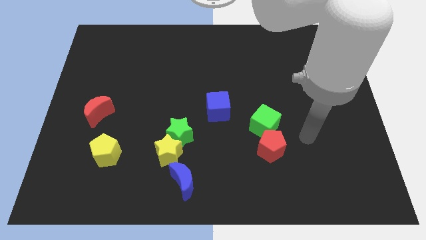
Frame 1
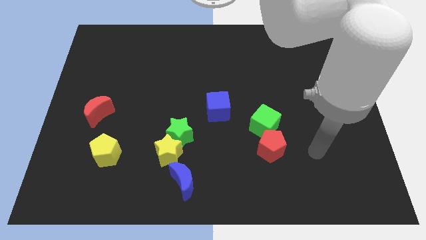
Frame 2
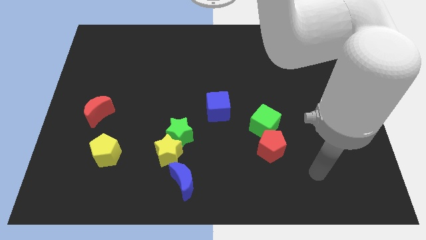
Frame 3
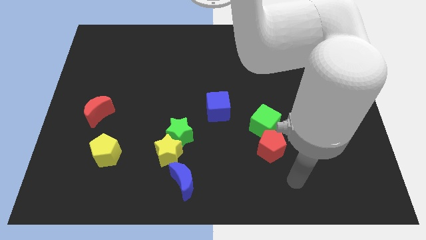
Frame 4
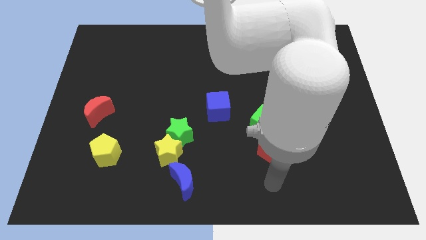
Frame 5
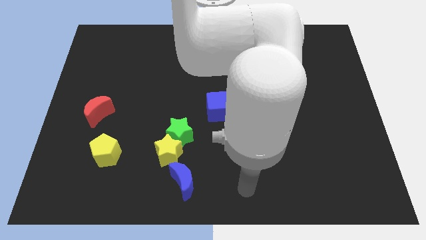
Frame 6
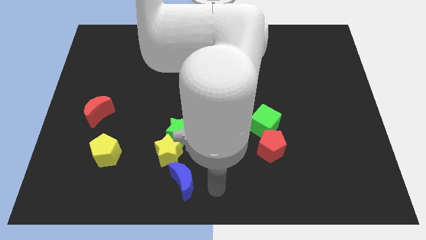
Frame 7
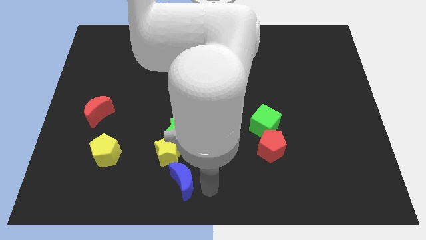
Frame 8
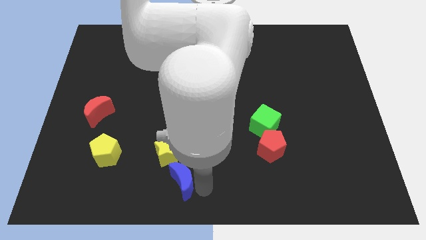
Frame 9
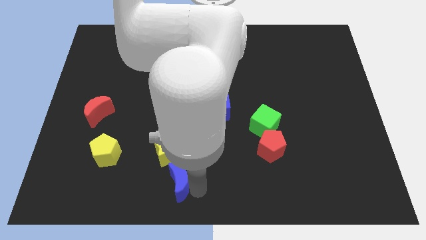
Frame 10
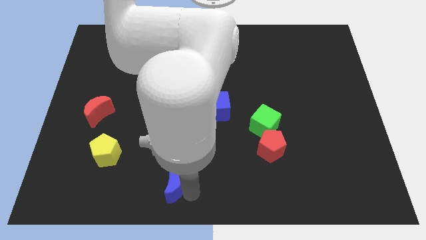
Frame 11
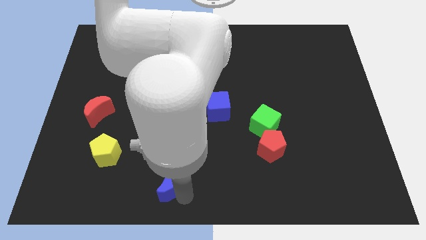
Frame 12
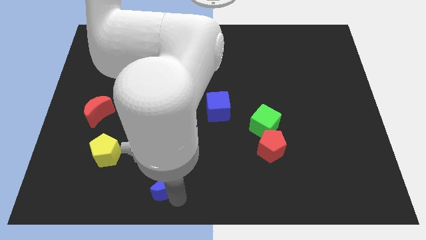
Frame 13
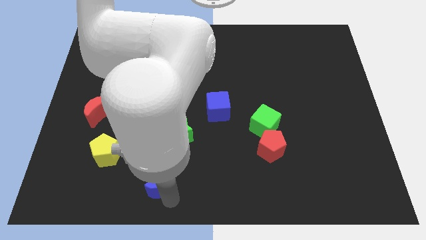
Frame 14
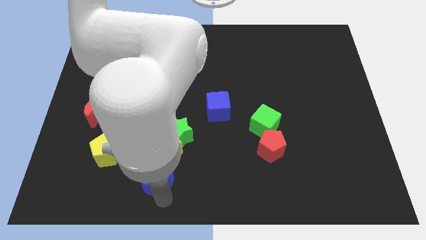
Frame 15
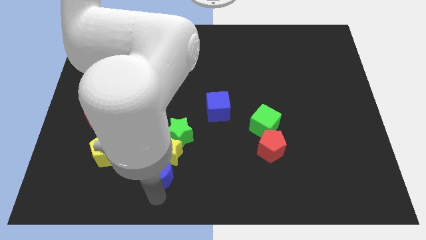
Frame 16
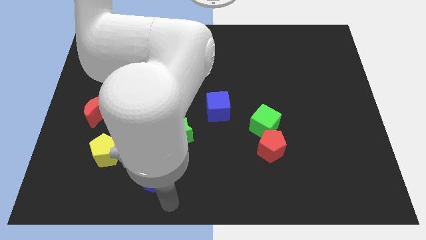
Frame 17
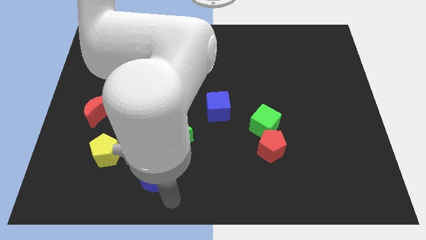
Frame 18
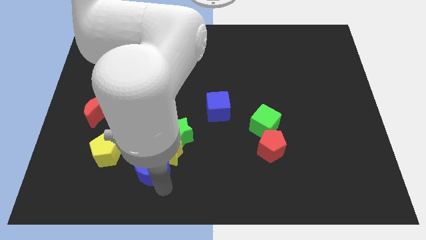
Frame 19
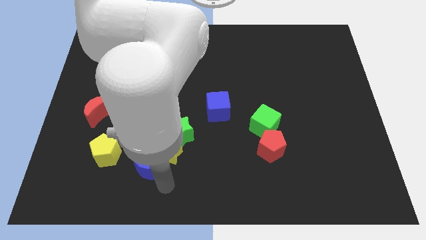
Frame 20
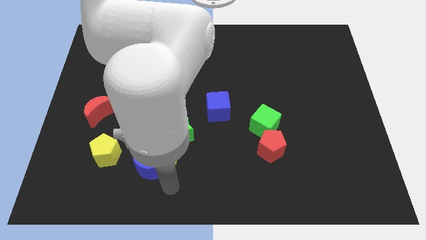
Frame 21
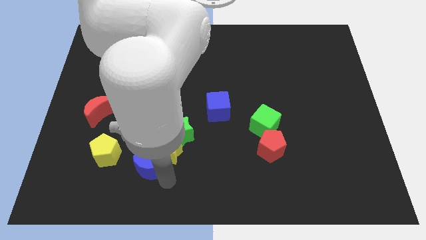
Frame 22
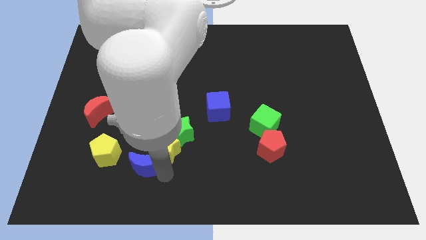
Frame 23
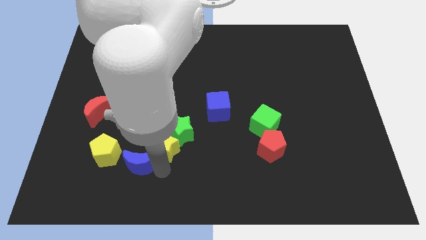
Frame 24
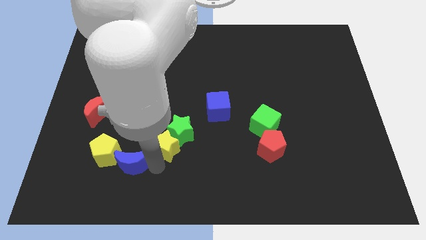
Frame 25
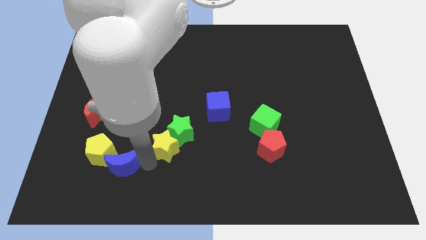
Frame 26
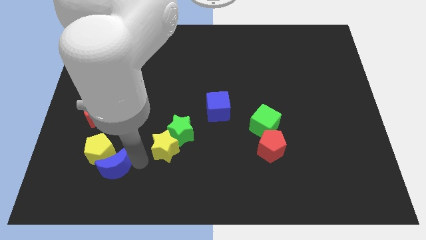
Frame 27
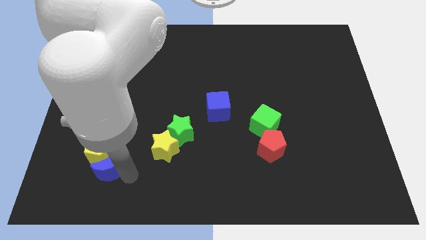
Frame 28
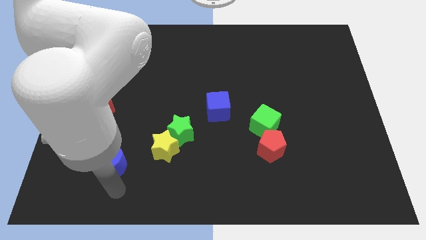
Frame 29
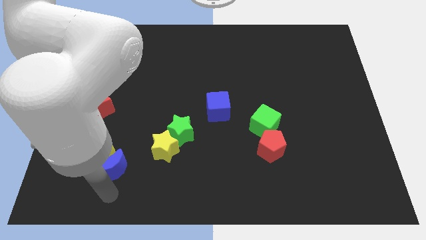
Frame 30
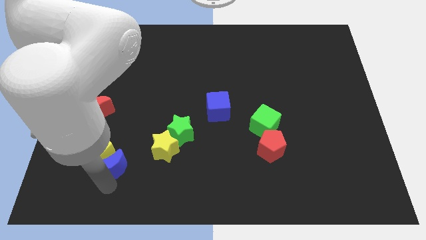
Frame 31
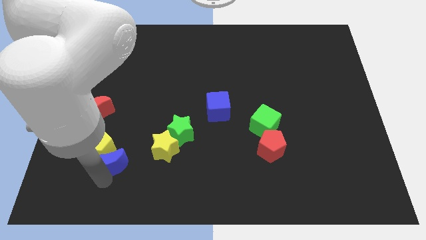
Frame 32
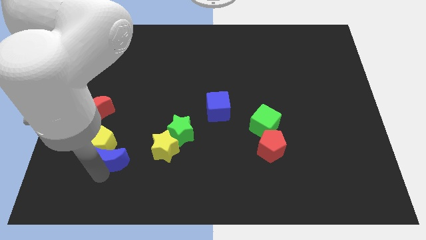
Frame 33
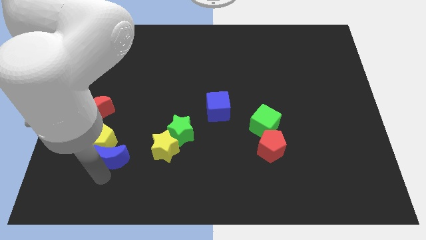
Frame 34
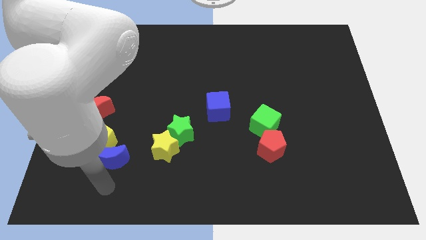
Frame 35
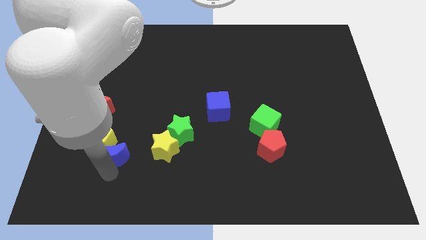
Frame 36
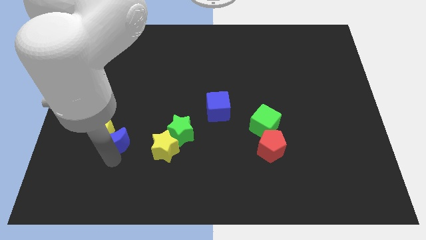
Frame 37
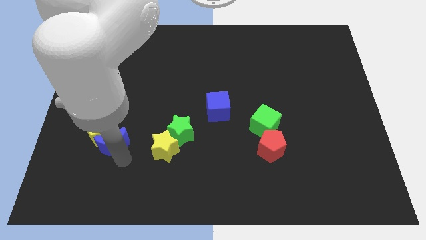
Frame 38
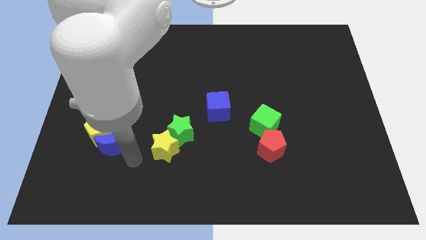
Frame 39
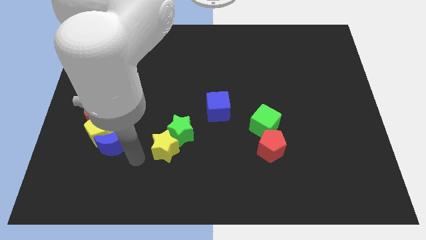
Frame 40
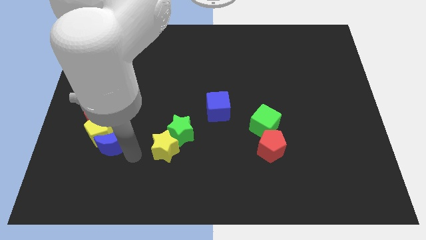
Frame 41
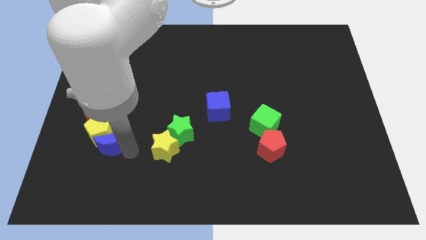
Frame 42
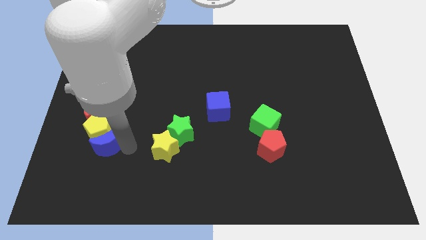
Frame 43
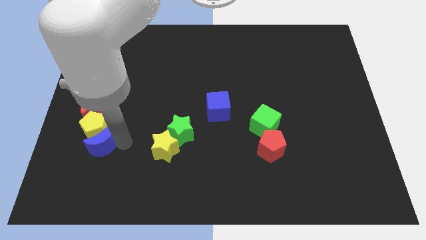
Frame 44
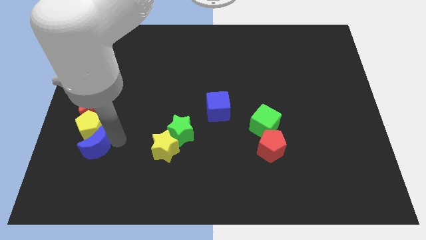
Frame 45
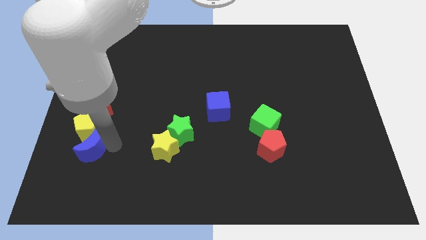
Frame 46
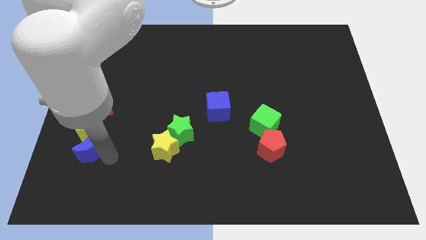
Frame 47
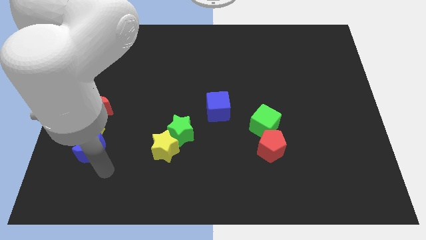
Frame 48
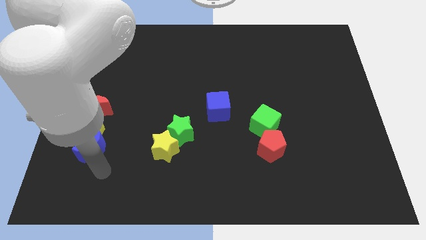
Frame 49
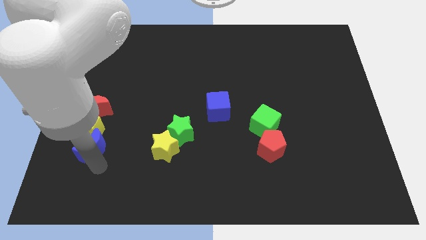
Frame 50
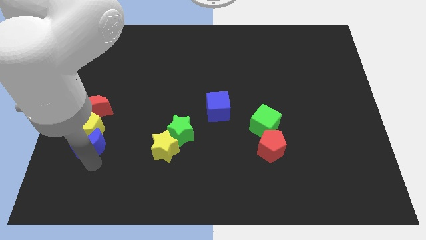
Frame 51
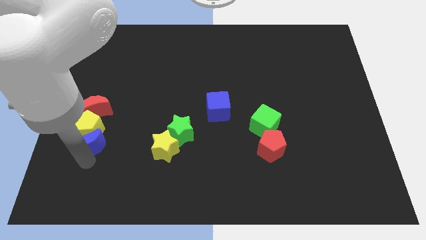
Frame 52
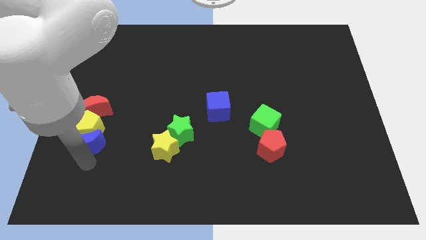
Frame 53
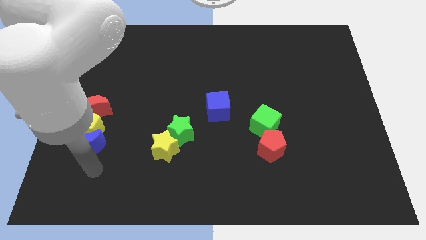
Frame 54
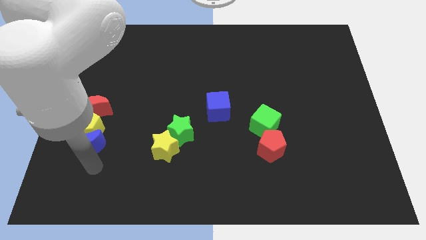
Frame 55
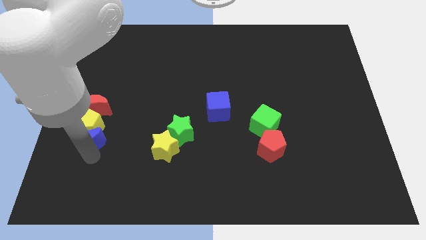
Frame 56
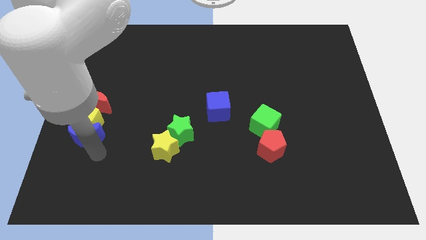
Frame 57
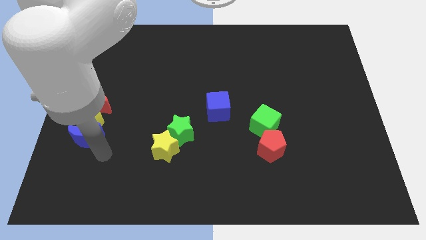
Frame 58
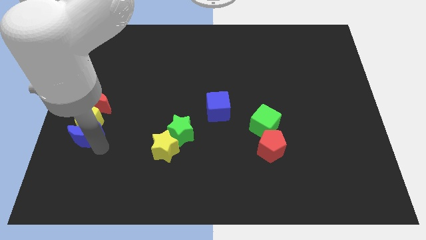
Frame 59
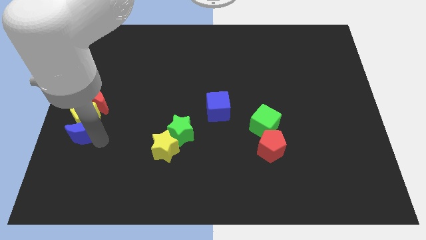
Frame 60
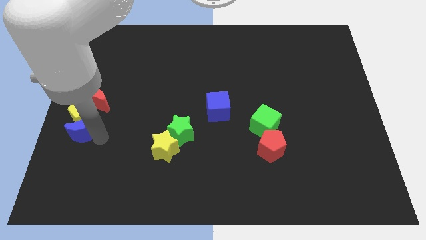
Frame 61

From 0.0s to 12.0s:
move the blue moon to the left side
